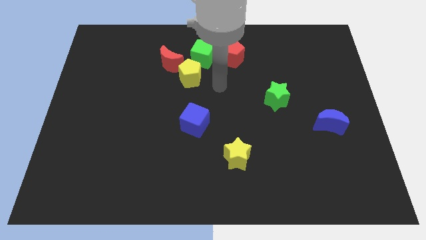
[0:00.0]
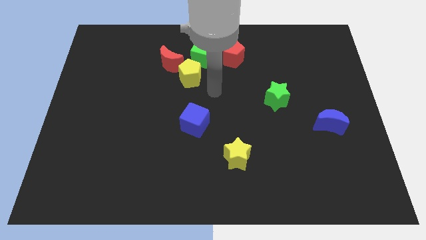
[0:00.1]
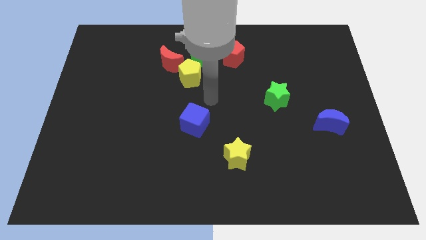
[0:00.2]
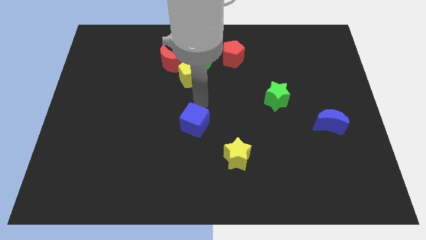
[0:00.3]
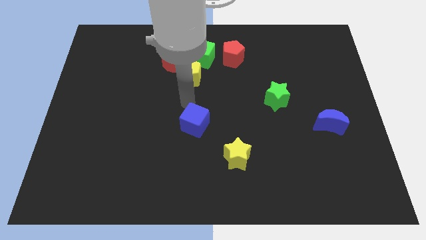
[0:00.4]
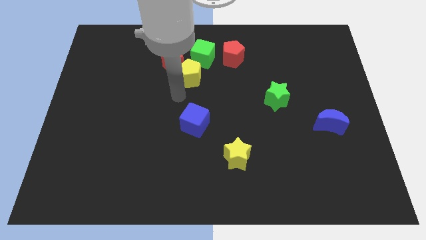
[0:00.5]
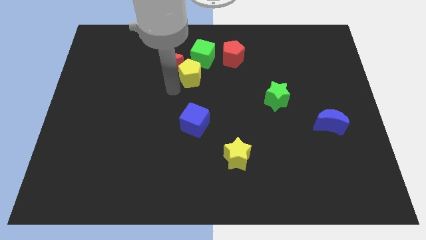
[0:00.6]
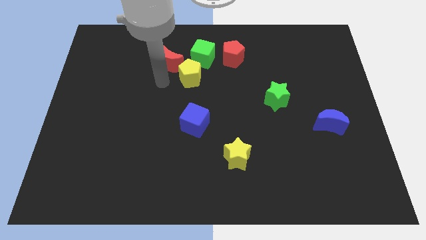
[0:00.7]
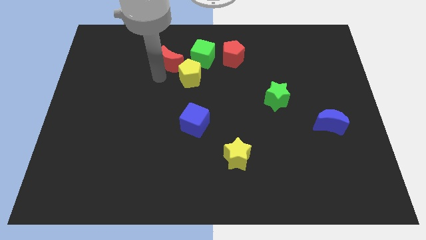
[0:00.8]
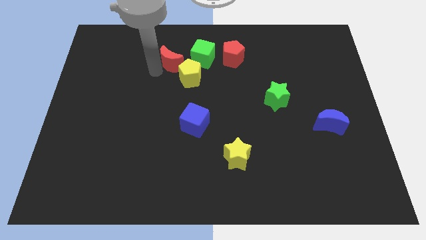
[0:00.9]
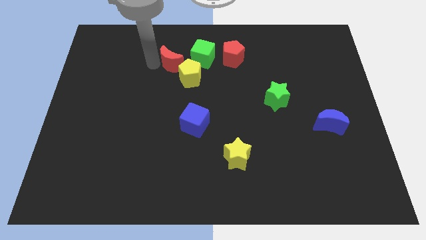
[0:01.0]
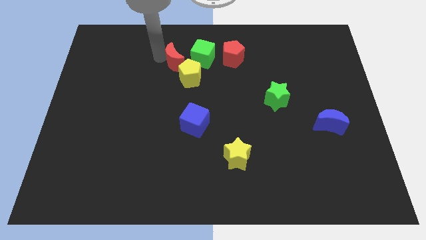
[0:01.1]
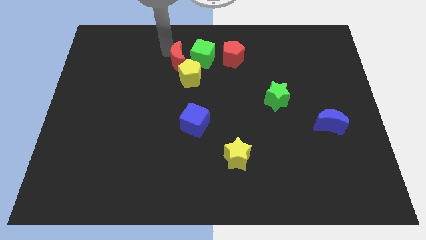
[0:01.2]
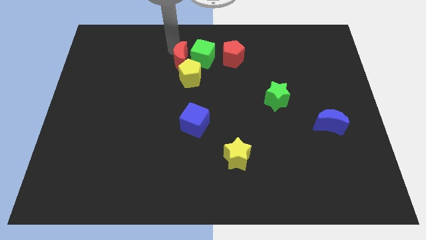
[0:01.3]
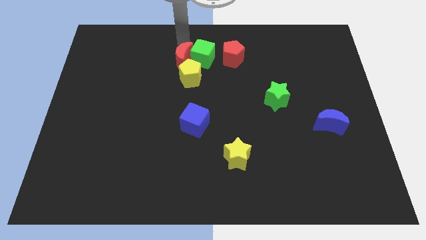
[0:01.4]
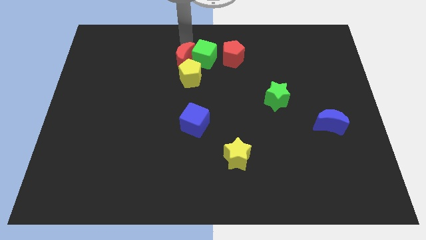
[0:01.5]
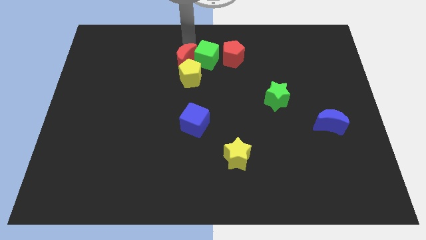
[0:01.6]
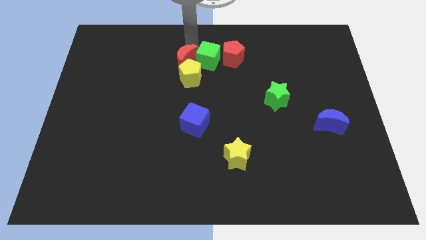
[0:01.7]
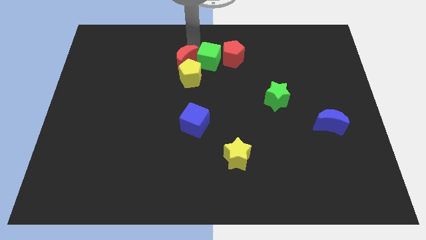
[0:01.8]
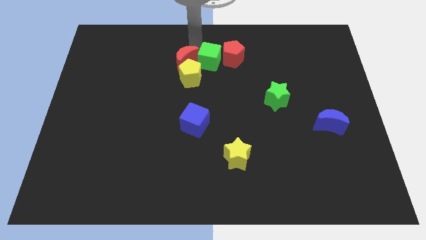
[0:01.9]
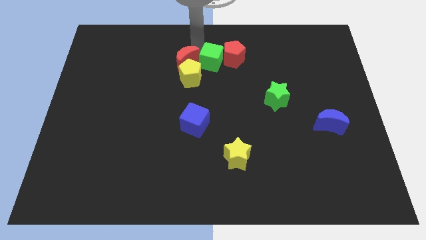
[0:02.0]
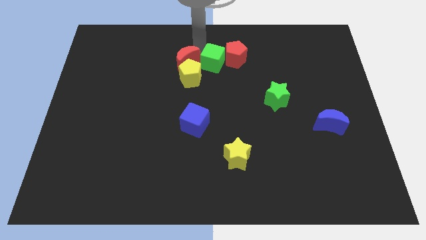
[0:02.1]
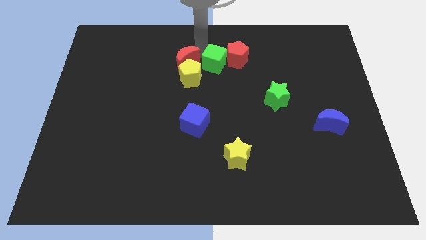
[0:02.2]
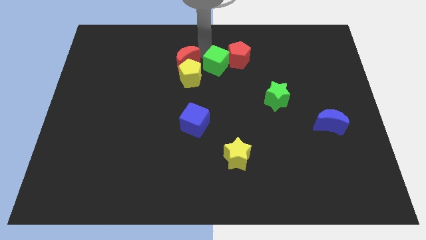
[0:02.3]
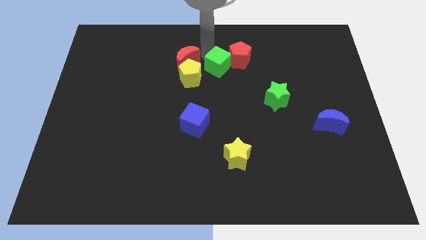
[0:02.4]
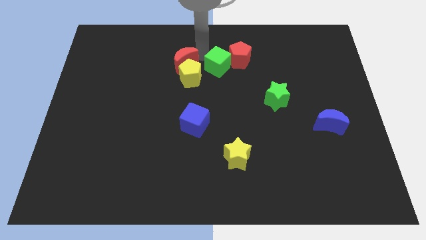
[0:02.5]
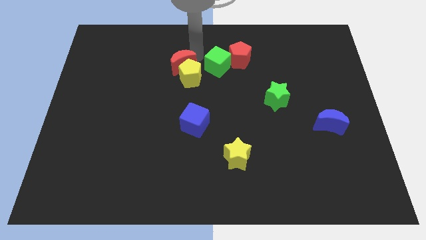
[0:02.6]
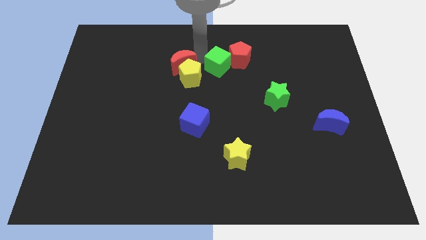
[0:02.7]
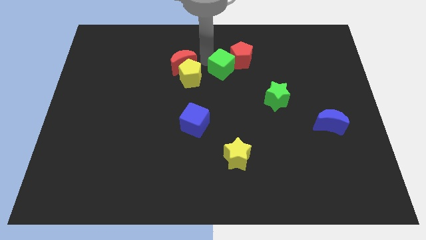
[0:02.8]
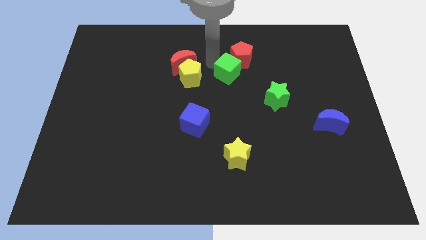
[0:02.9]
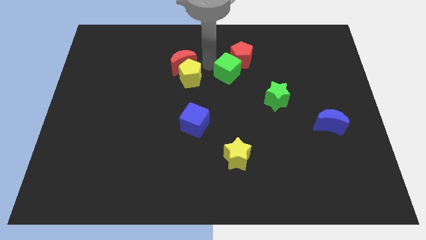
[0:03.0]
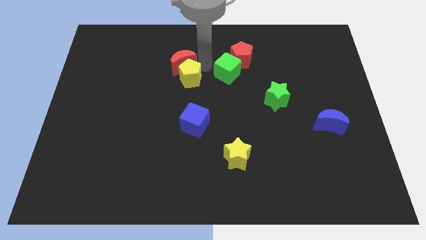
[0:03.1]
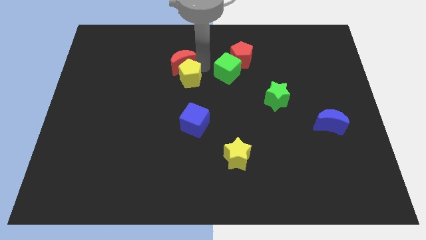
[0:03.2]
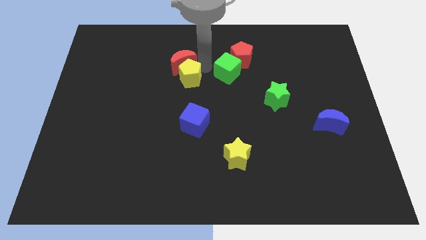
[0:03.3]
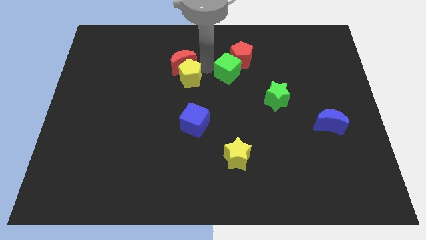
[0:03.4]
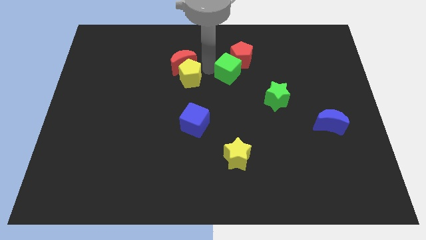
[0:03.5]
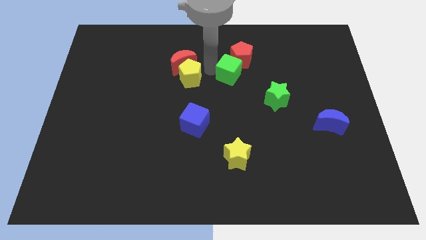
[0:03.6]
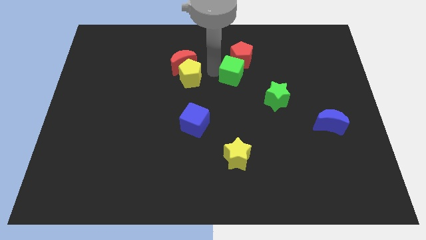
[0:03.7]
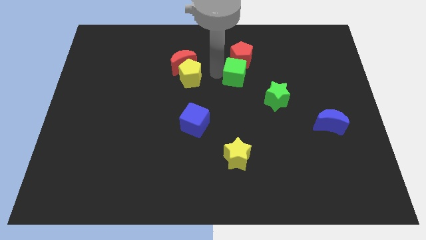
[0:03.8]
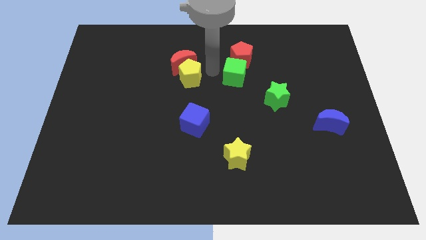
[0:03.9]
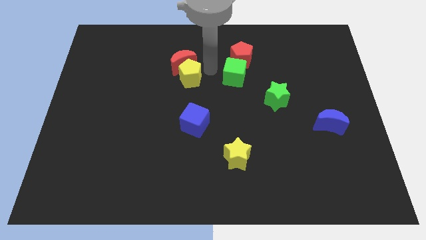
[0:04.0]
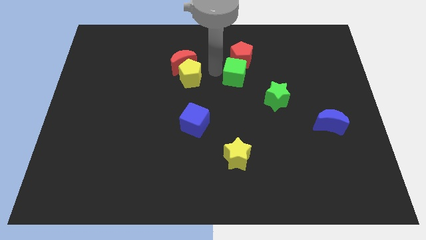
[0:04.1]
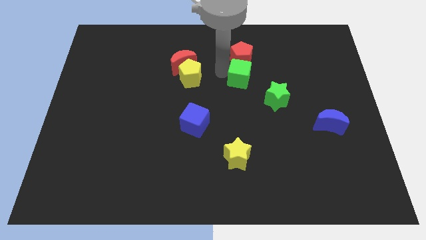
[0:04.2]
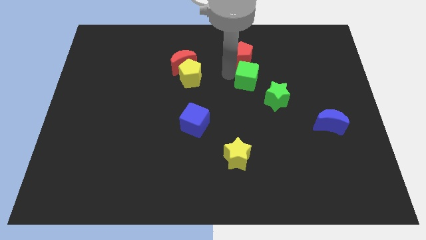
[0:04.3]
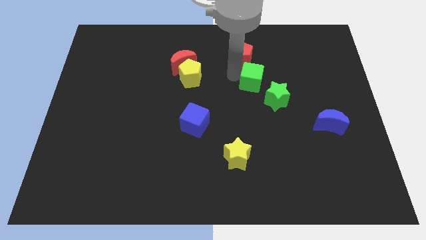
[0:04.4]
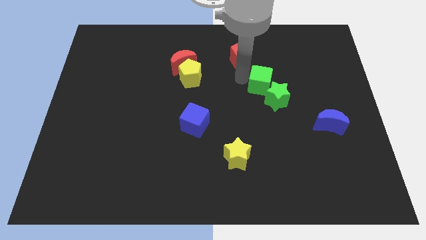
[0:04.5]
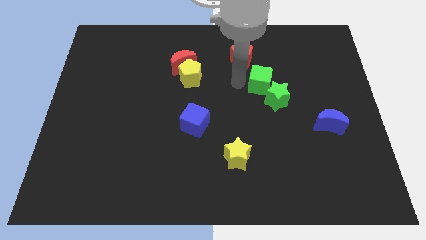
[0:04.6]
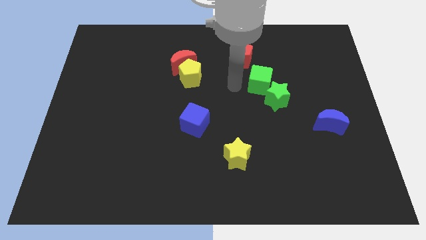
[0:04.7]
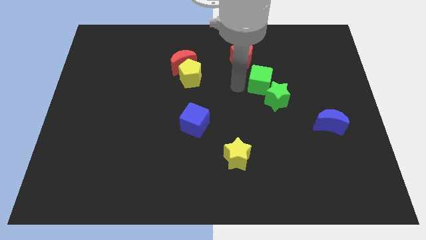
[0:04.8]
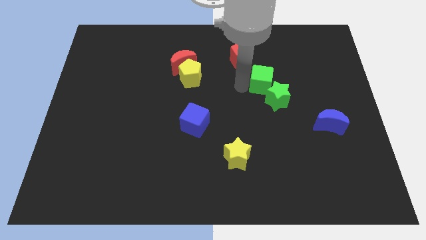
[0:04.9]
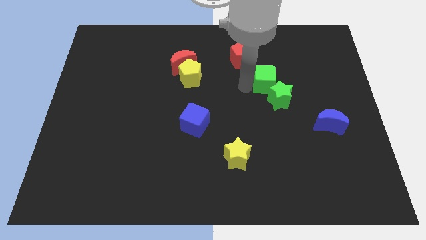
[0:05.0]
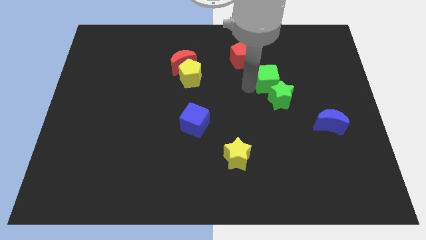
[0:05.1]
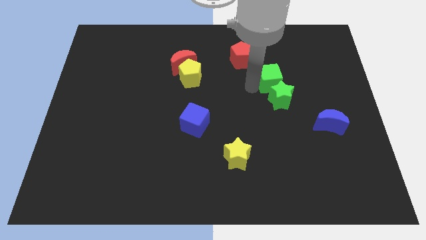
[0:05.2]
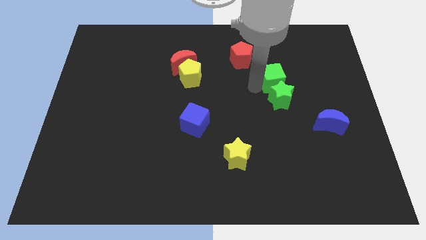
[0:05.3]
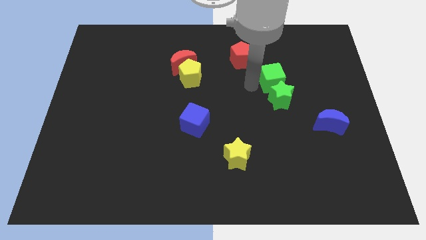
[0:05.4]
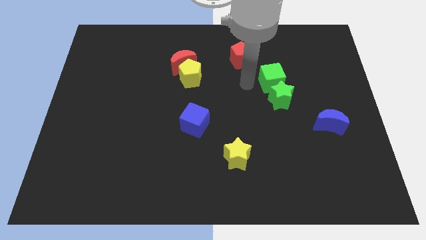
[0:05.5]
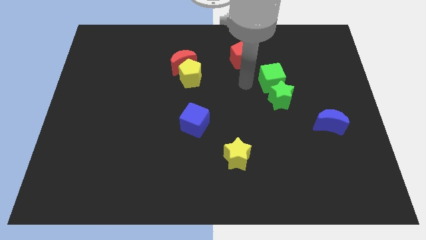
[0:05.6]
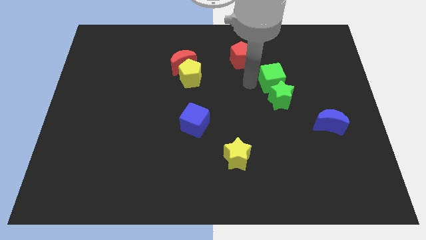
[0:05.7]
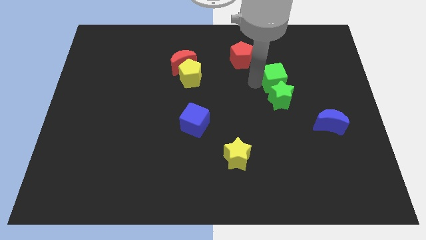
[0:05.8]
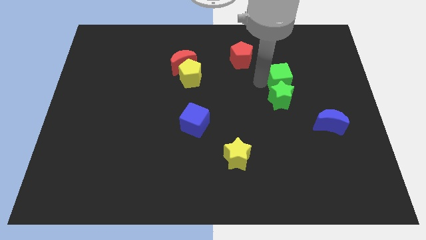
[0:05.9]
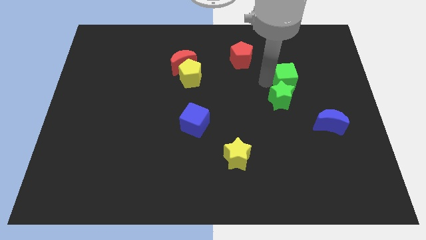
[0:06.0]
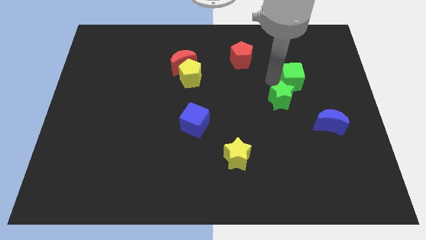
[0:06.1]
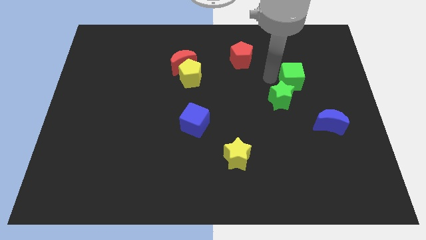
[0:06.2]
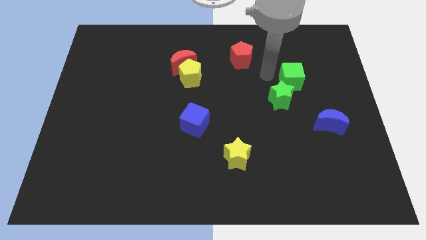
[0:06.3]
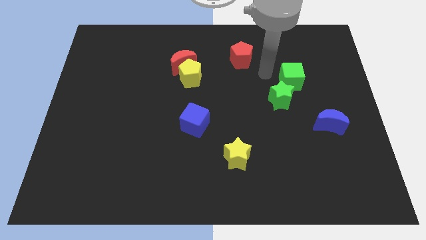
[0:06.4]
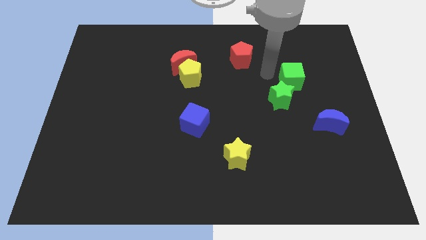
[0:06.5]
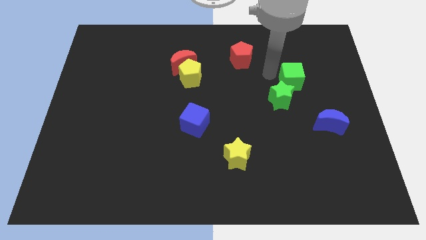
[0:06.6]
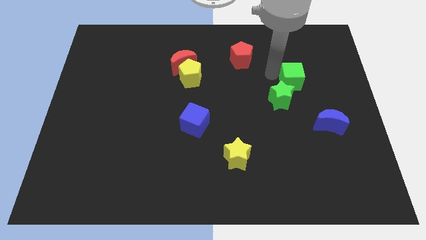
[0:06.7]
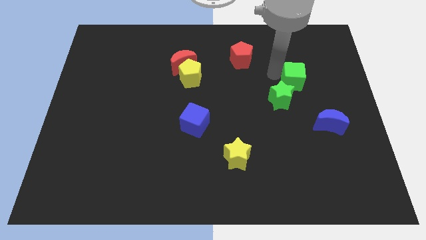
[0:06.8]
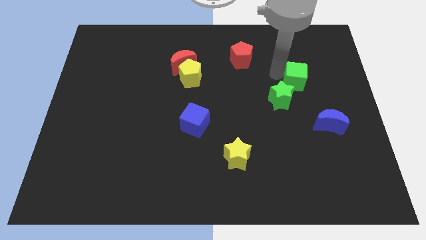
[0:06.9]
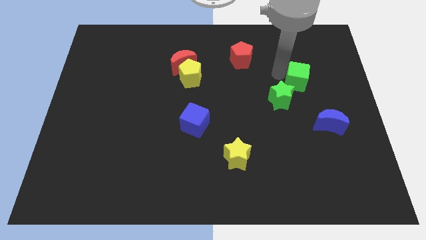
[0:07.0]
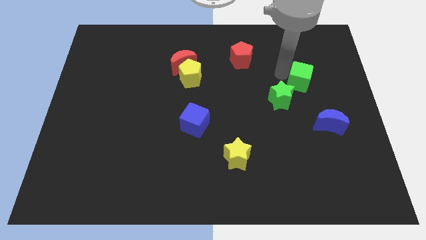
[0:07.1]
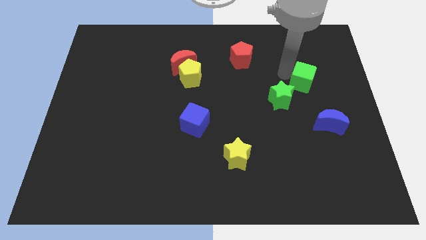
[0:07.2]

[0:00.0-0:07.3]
put the green cube above the blue moon

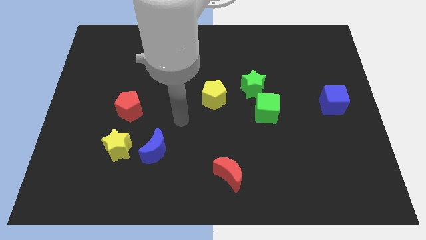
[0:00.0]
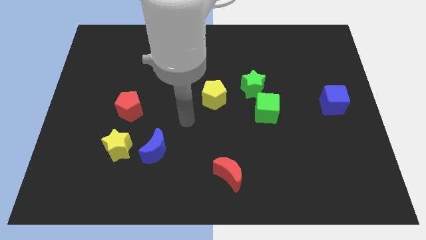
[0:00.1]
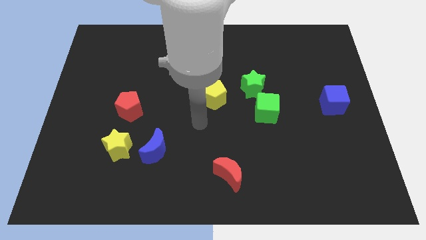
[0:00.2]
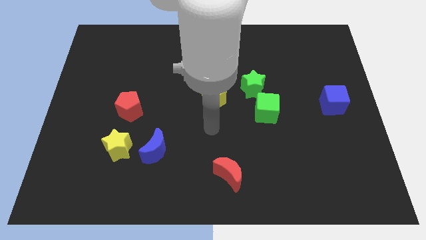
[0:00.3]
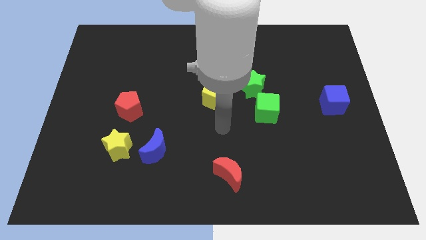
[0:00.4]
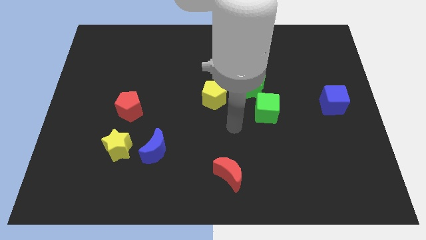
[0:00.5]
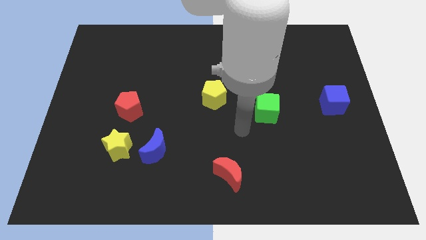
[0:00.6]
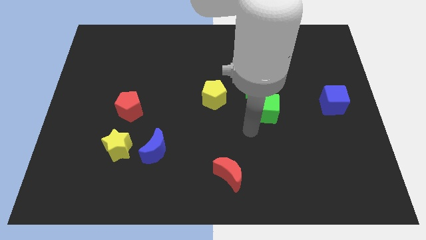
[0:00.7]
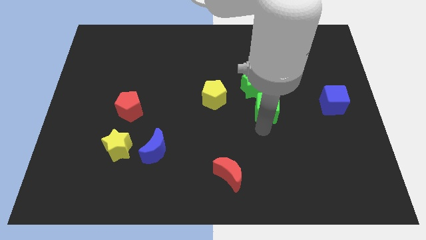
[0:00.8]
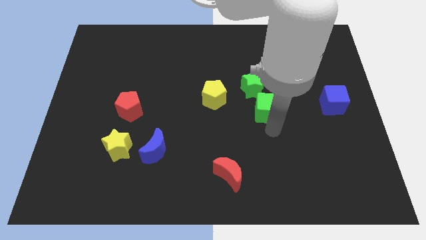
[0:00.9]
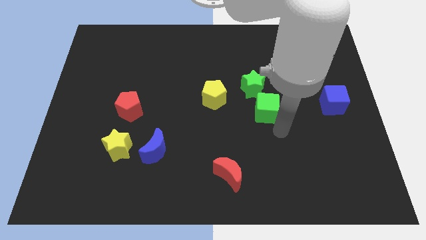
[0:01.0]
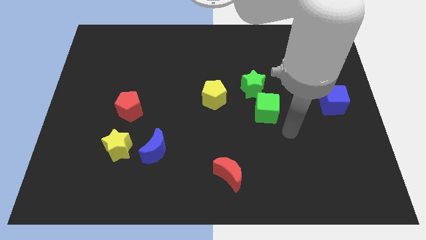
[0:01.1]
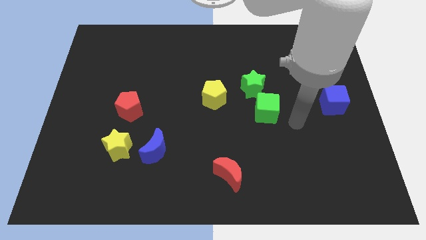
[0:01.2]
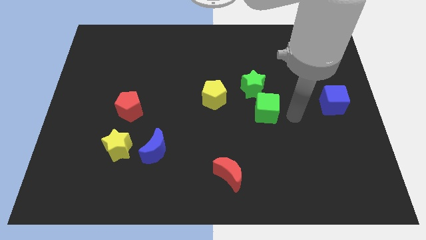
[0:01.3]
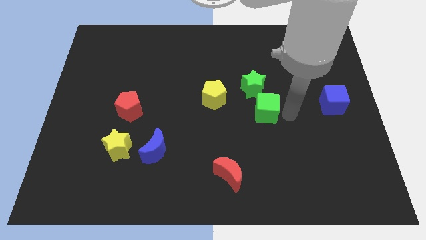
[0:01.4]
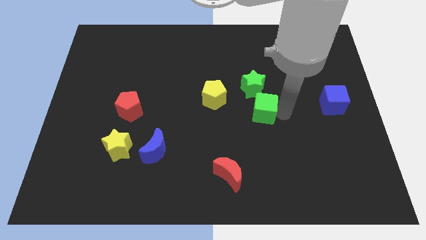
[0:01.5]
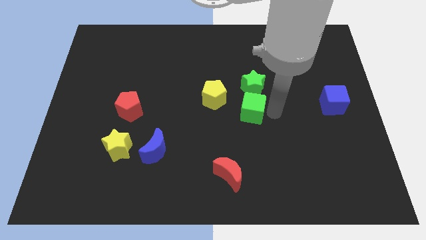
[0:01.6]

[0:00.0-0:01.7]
push the green cube diagonally down and to the left of the green star
